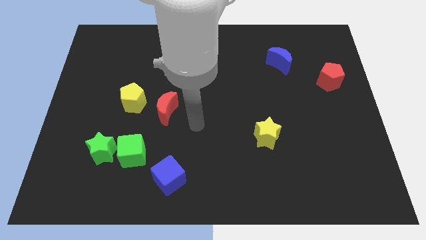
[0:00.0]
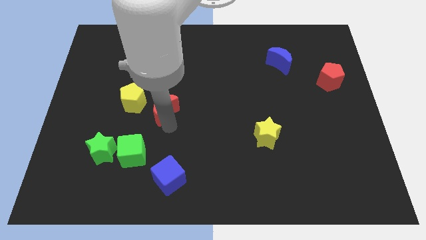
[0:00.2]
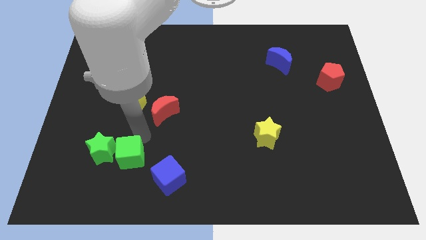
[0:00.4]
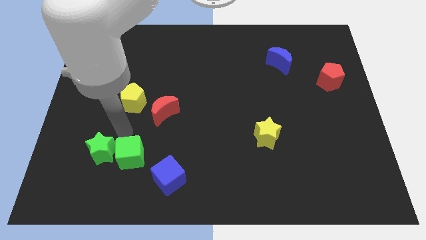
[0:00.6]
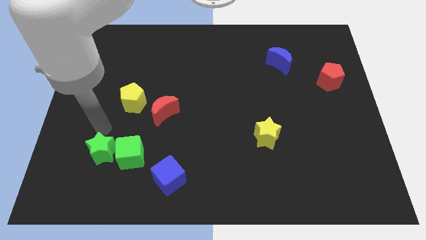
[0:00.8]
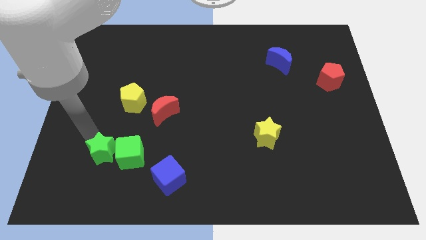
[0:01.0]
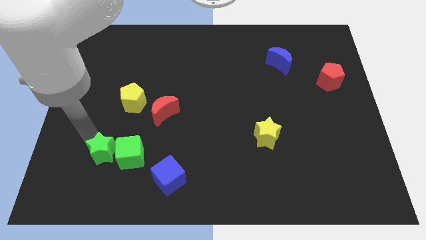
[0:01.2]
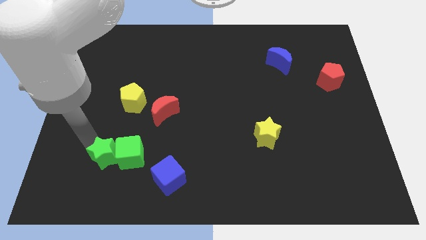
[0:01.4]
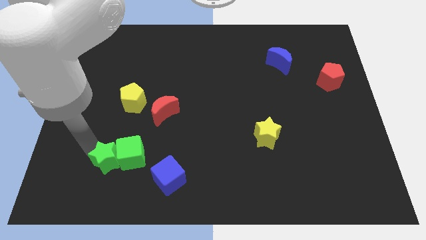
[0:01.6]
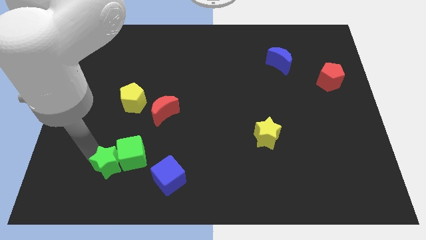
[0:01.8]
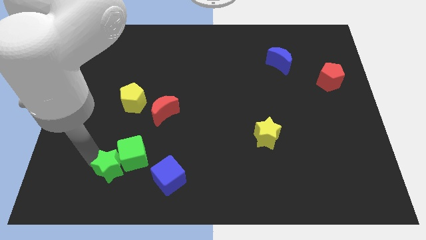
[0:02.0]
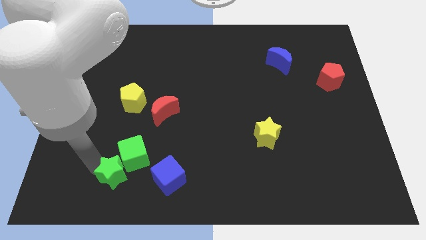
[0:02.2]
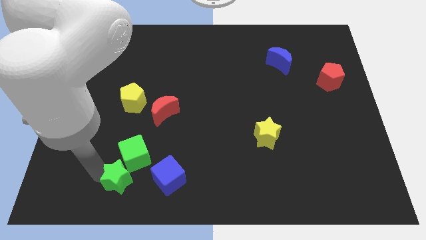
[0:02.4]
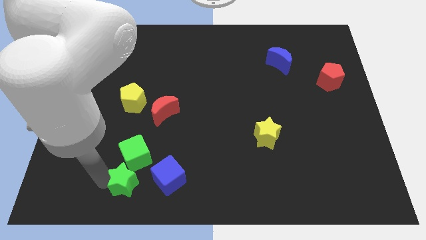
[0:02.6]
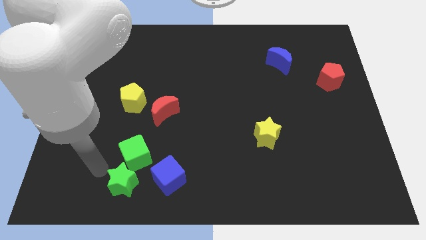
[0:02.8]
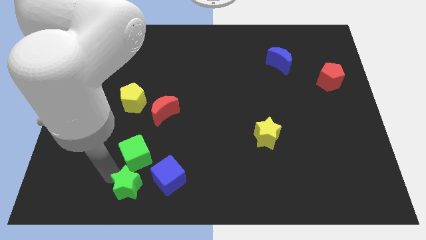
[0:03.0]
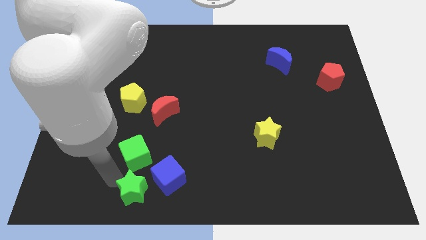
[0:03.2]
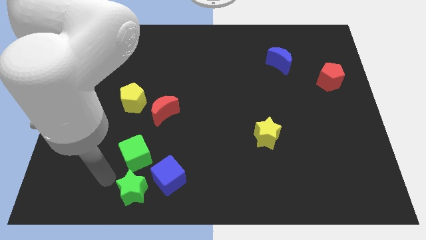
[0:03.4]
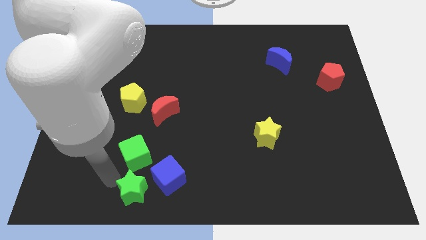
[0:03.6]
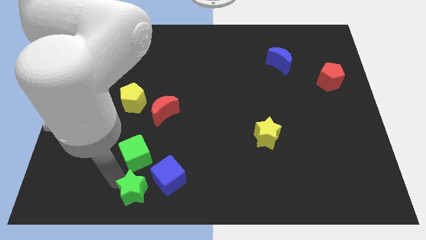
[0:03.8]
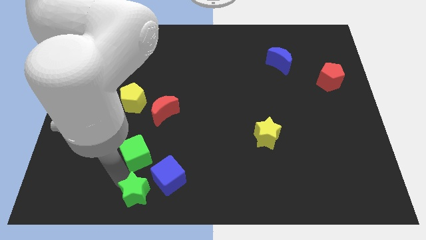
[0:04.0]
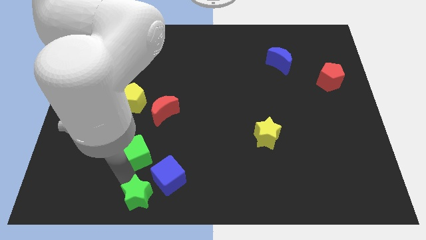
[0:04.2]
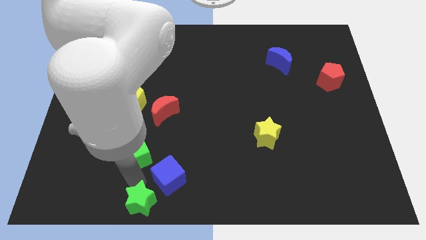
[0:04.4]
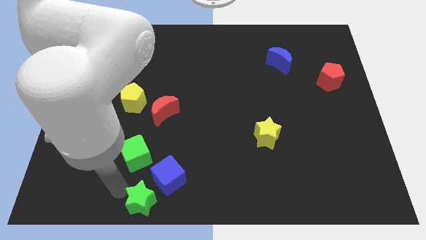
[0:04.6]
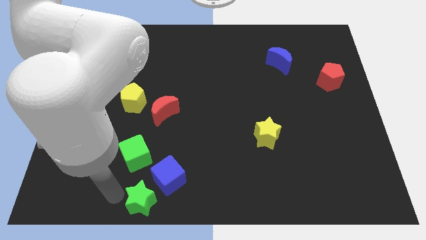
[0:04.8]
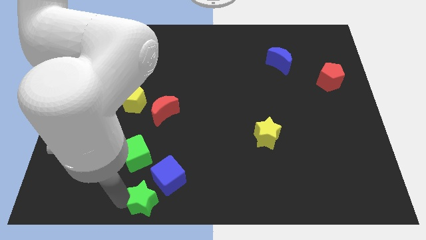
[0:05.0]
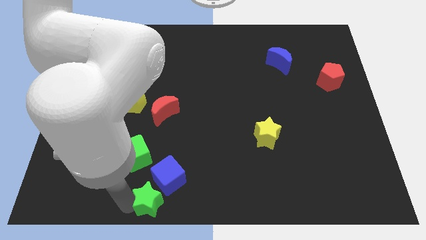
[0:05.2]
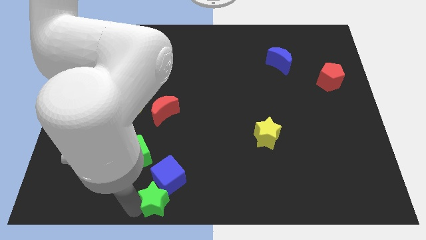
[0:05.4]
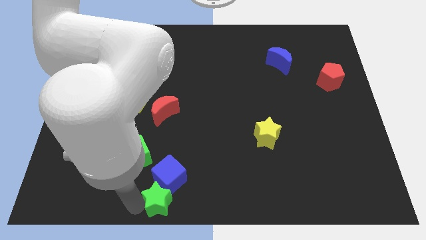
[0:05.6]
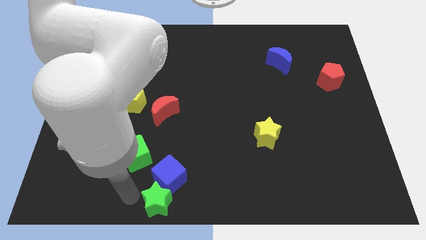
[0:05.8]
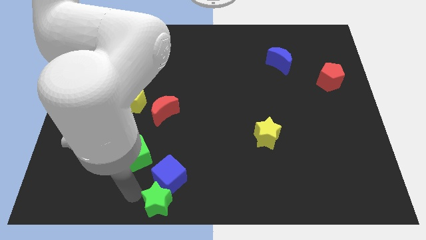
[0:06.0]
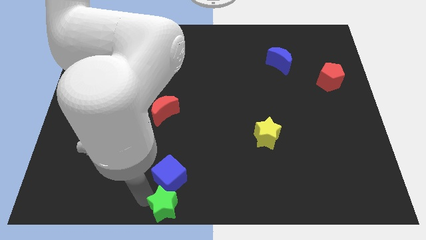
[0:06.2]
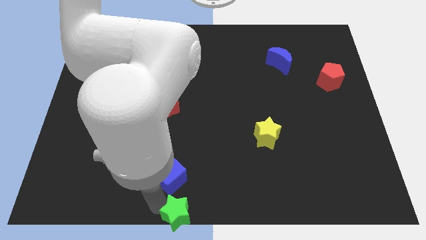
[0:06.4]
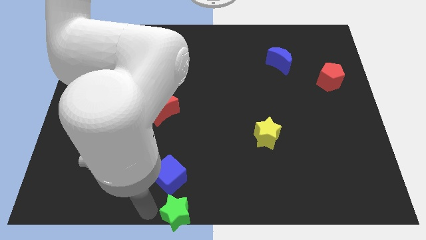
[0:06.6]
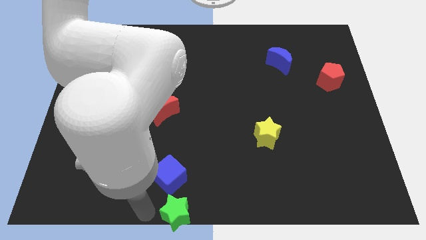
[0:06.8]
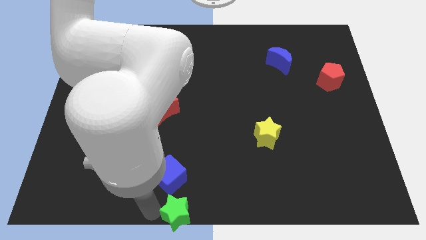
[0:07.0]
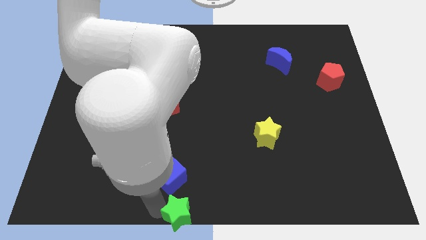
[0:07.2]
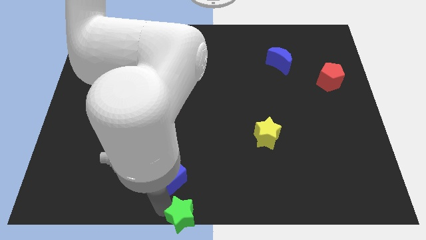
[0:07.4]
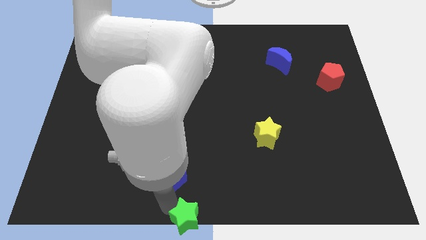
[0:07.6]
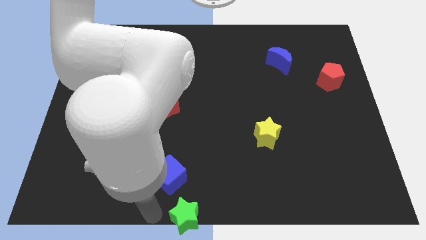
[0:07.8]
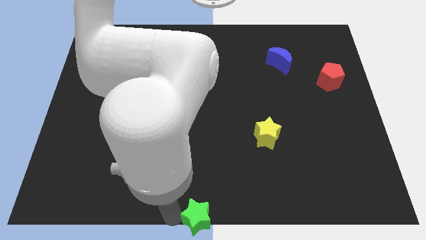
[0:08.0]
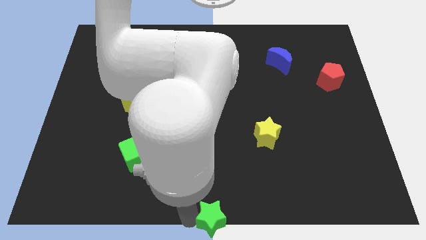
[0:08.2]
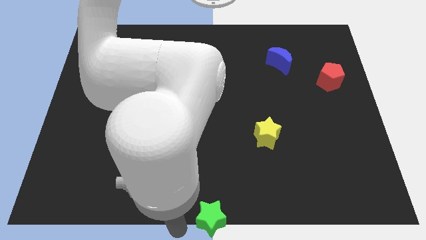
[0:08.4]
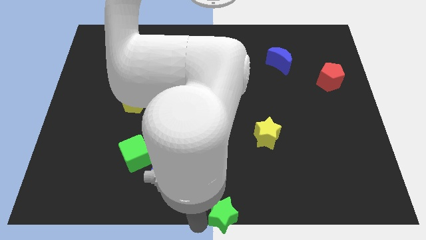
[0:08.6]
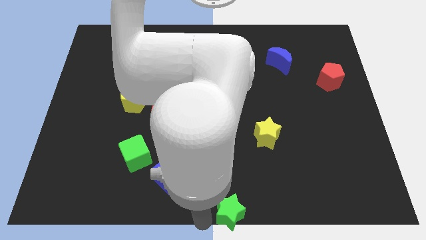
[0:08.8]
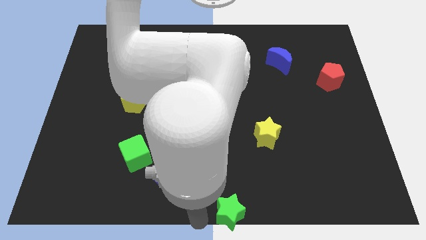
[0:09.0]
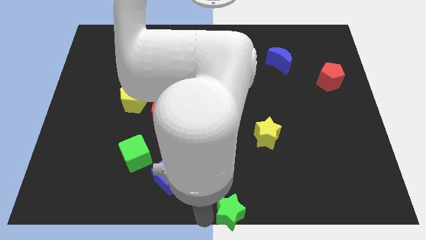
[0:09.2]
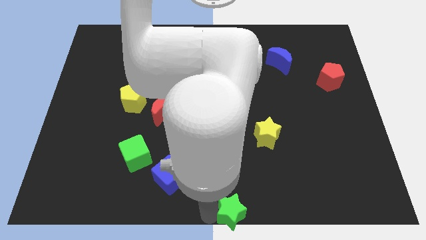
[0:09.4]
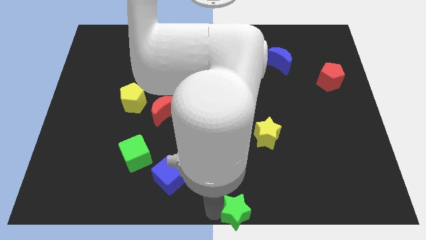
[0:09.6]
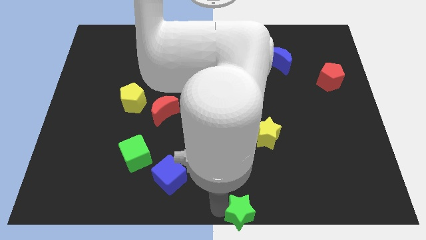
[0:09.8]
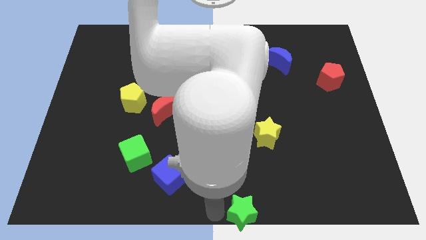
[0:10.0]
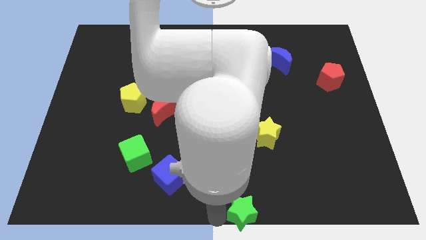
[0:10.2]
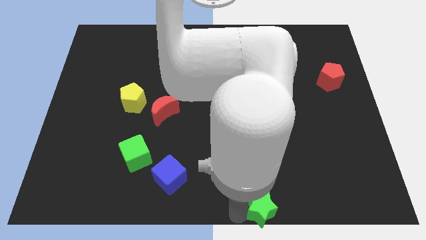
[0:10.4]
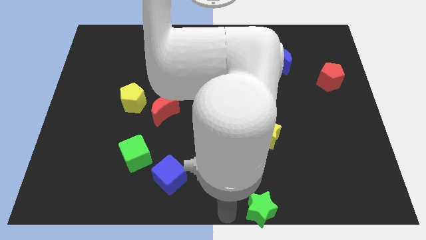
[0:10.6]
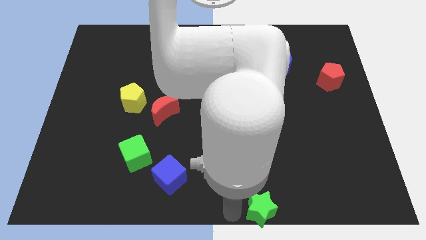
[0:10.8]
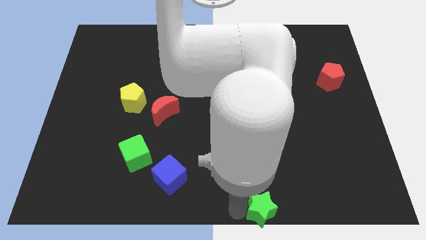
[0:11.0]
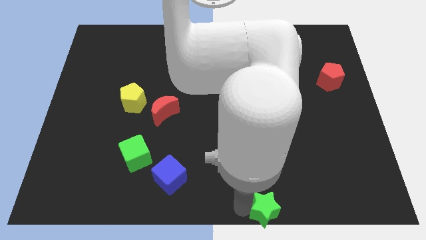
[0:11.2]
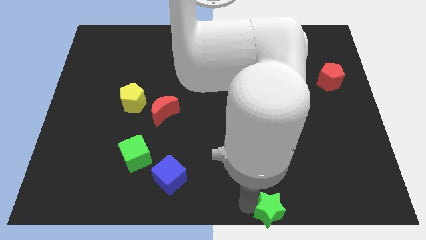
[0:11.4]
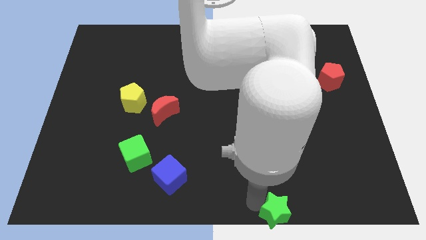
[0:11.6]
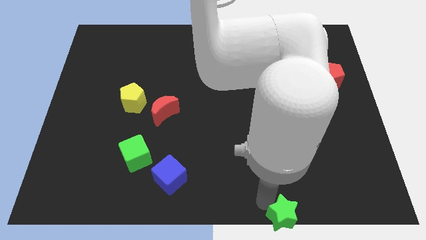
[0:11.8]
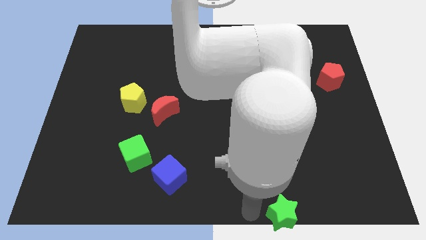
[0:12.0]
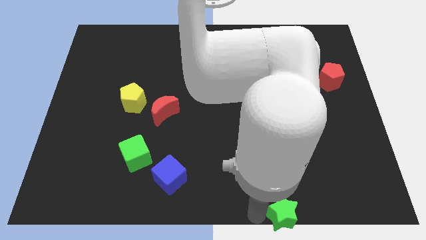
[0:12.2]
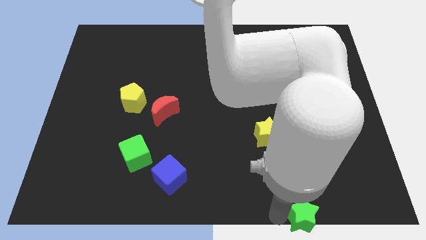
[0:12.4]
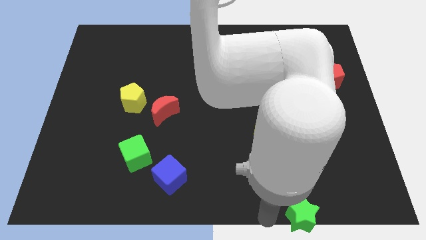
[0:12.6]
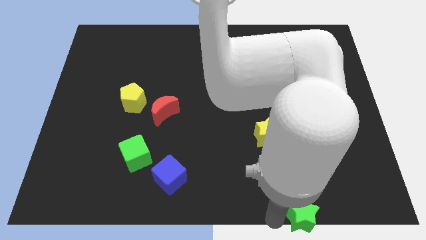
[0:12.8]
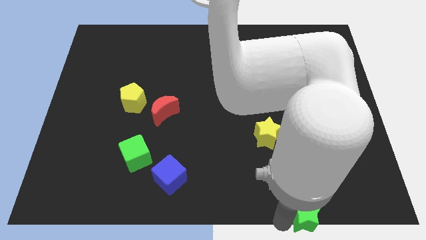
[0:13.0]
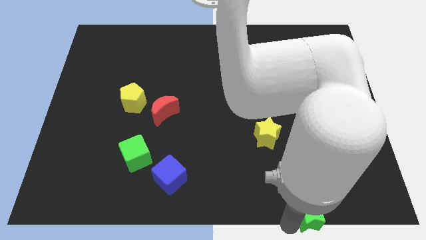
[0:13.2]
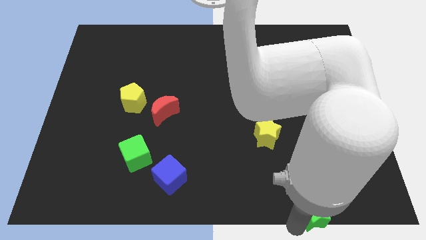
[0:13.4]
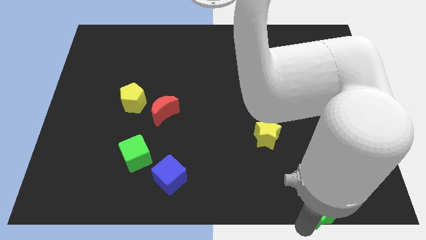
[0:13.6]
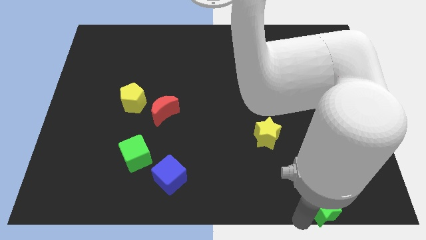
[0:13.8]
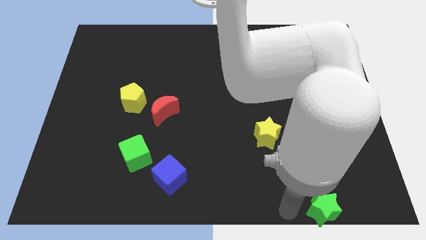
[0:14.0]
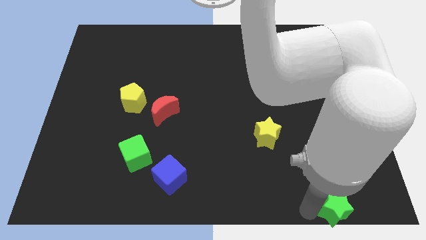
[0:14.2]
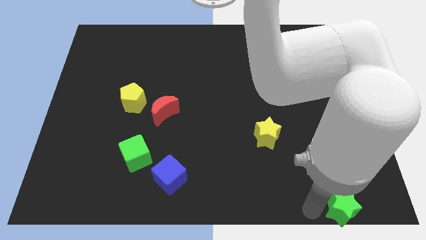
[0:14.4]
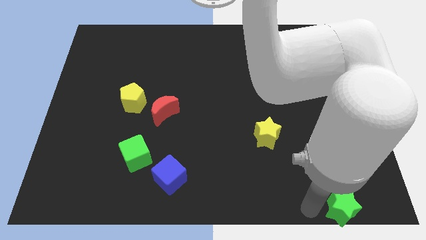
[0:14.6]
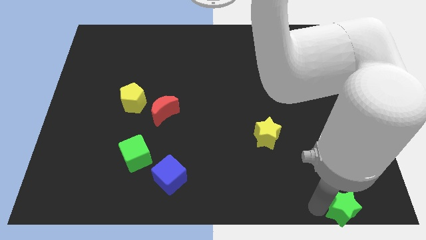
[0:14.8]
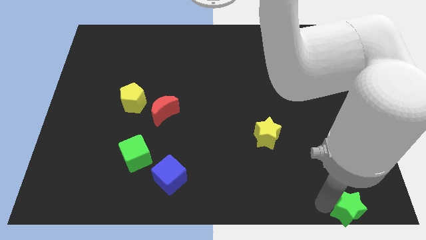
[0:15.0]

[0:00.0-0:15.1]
put the green star to the bottom right
